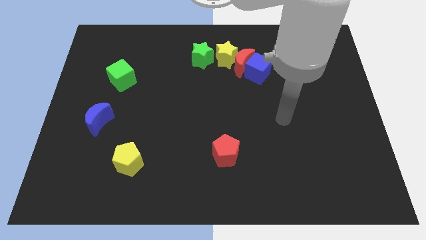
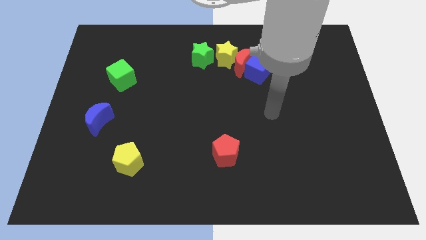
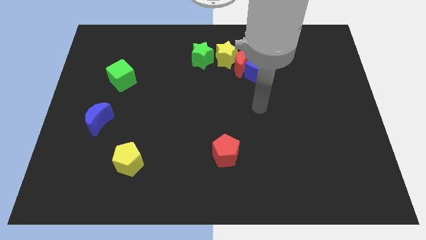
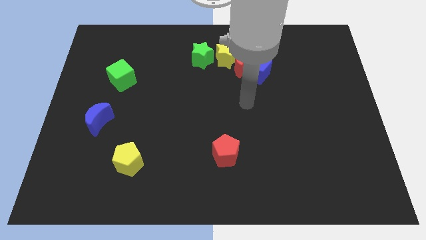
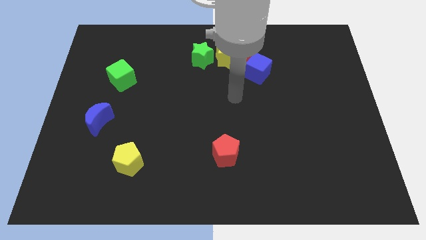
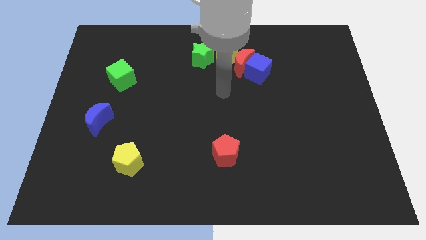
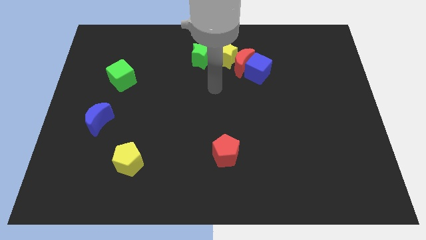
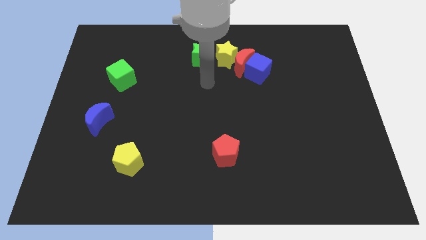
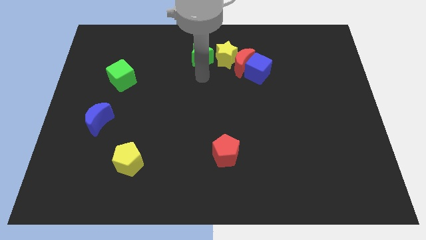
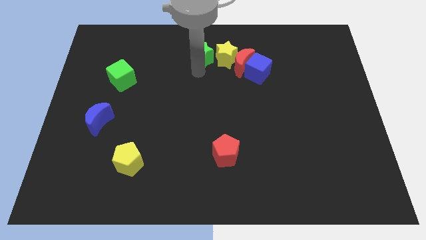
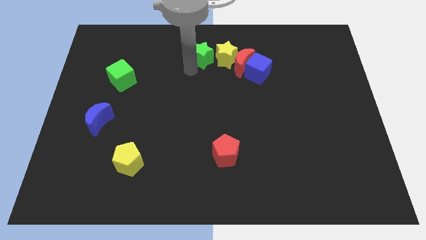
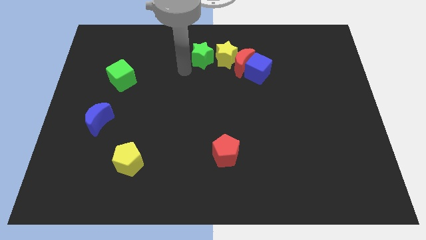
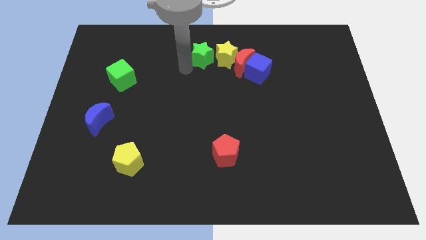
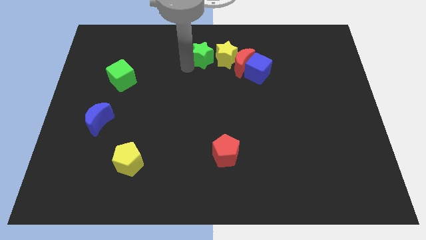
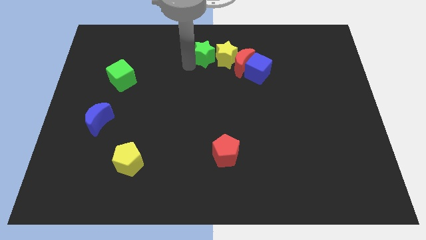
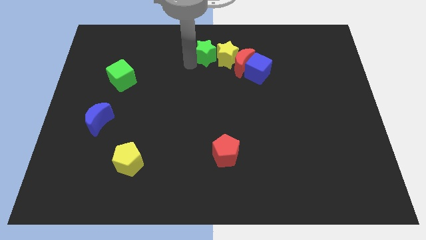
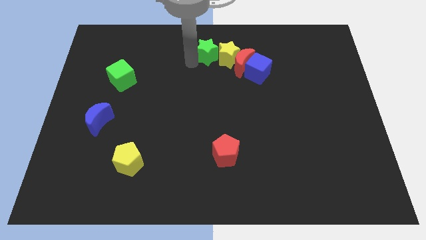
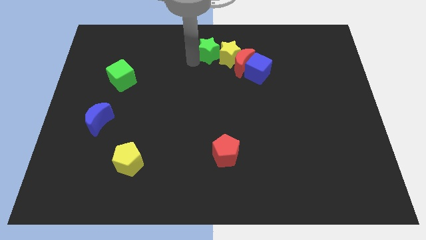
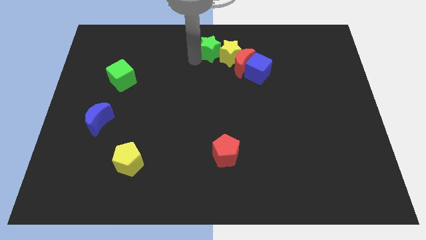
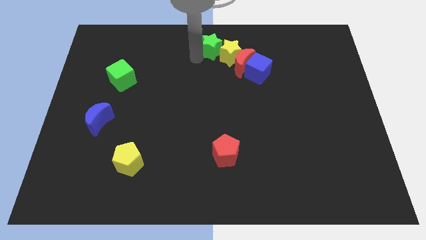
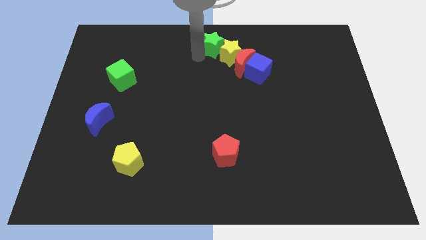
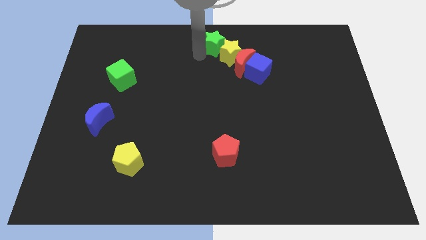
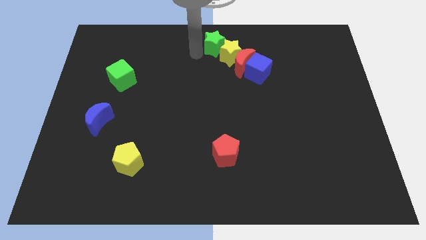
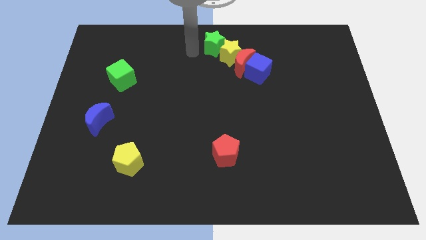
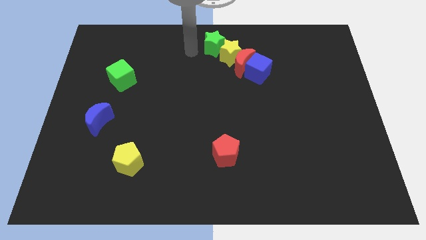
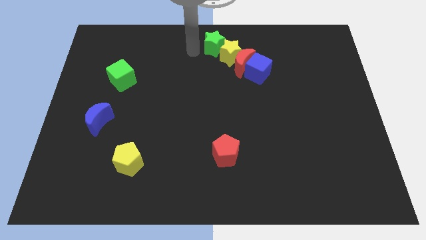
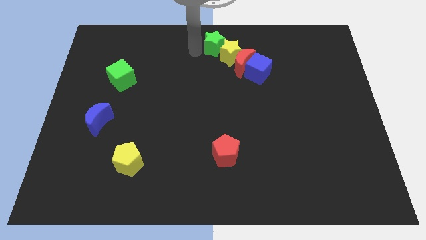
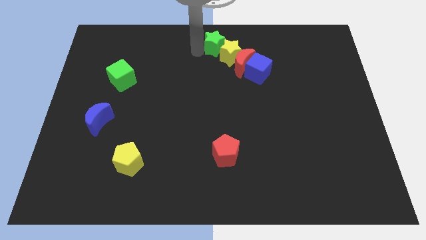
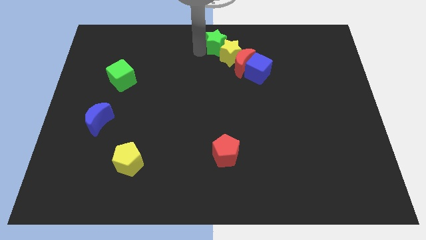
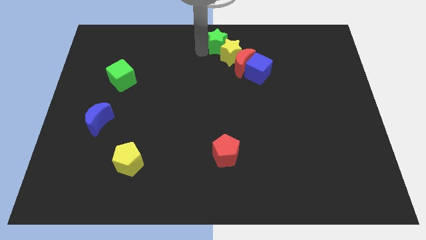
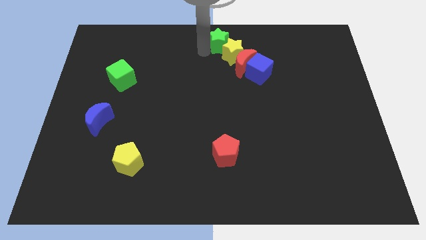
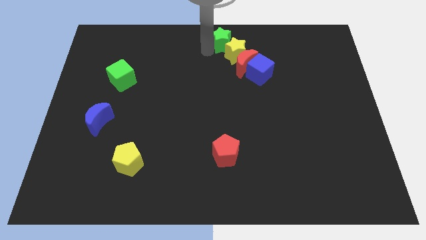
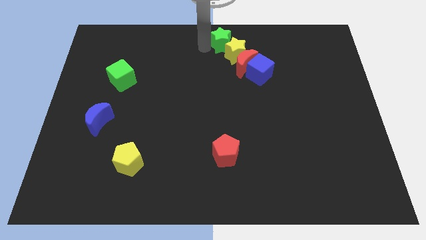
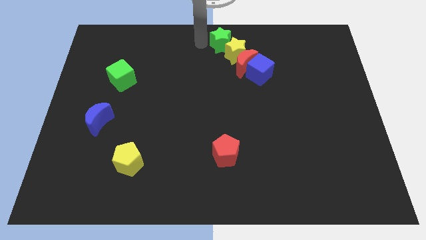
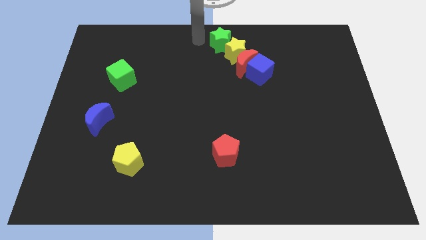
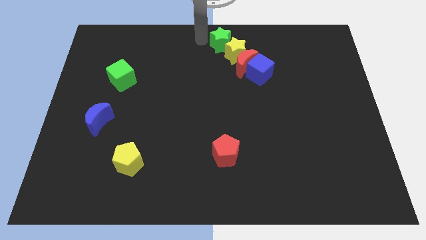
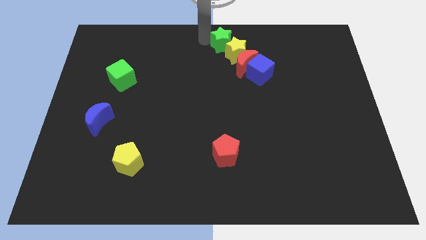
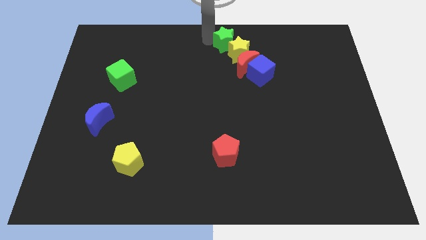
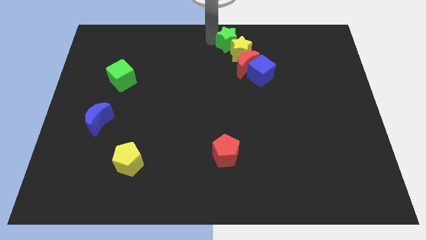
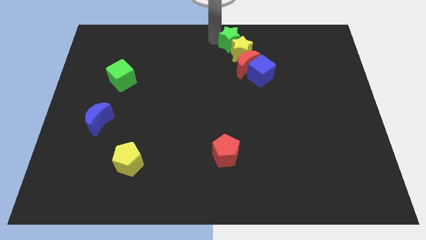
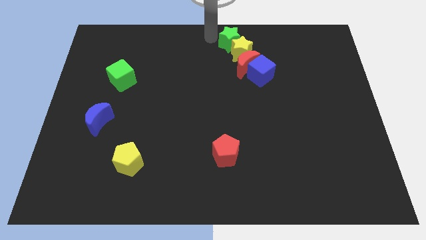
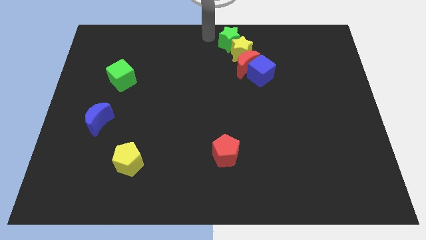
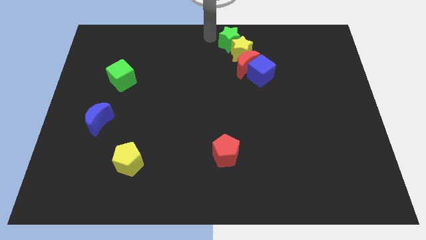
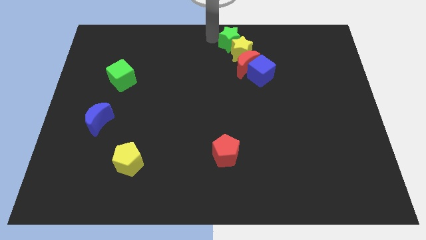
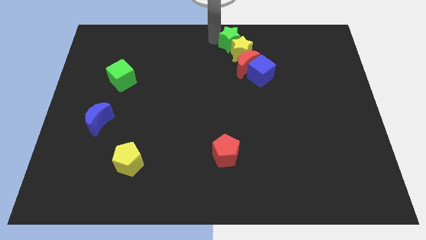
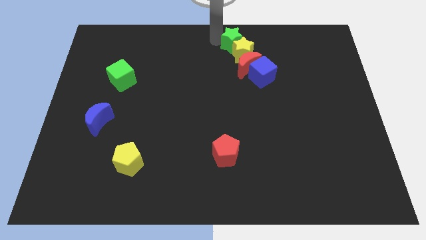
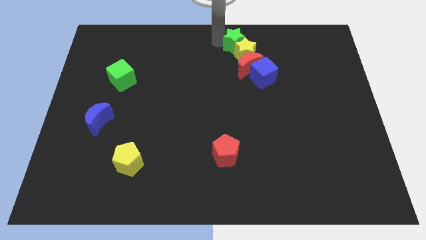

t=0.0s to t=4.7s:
push the green star a little to the right

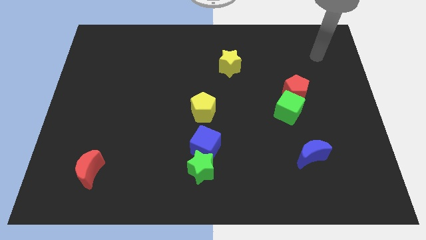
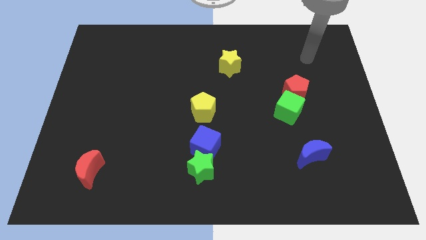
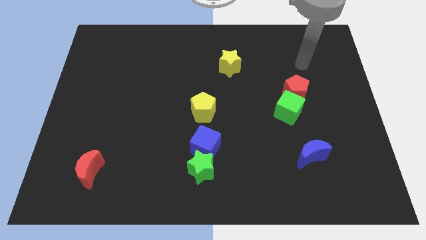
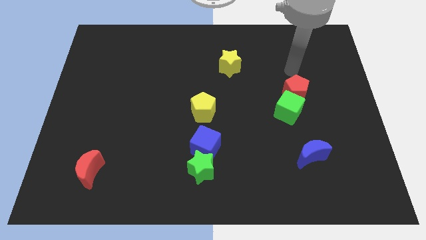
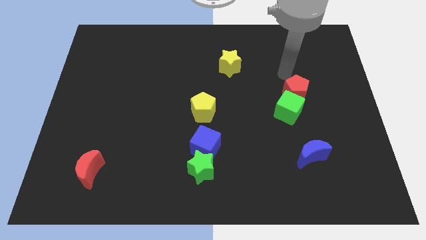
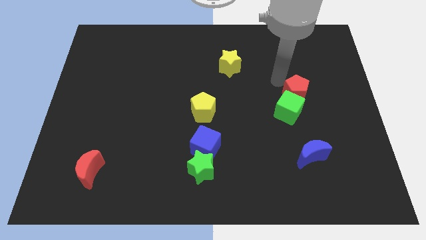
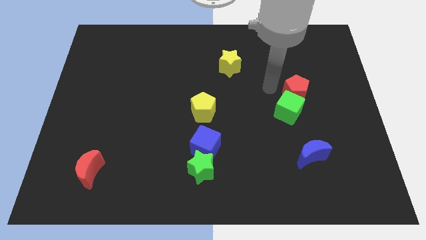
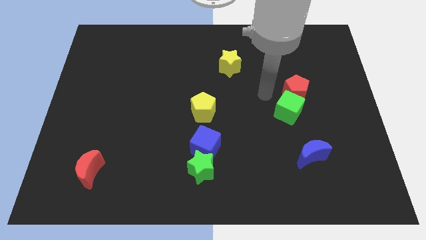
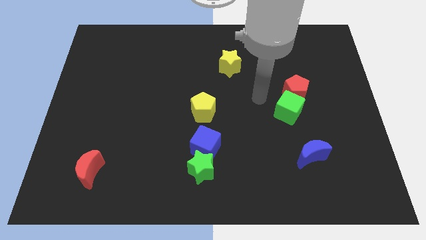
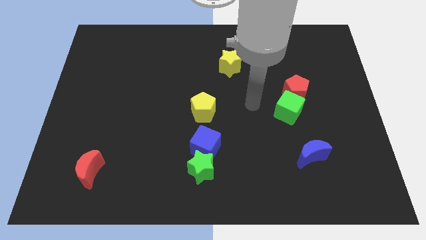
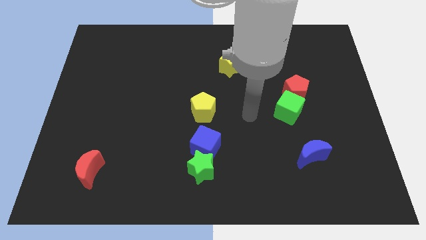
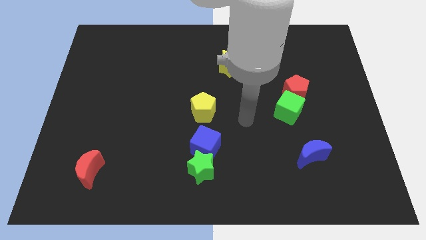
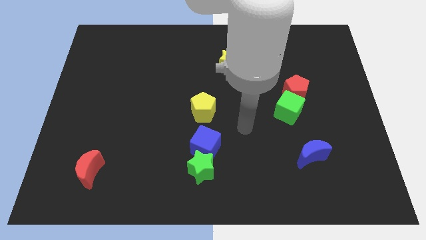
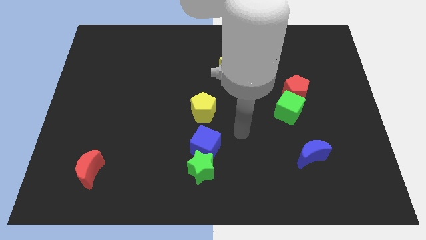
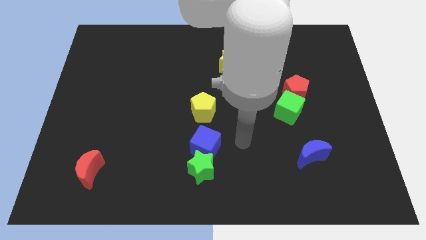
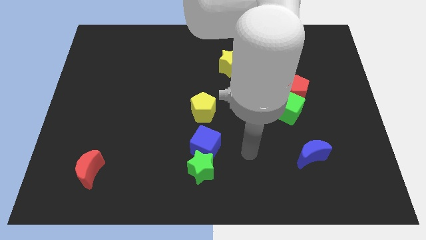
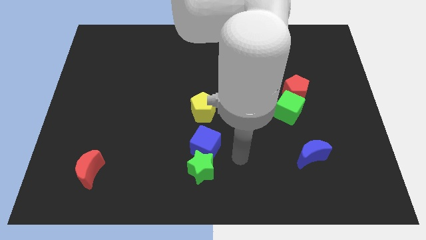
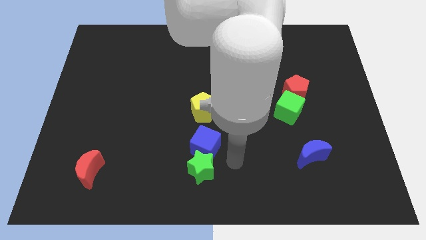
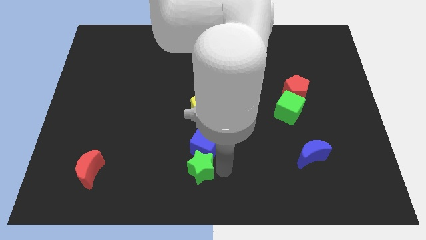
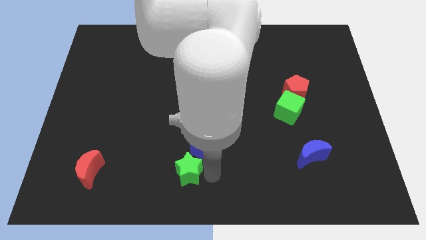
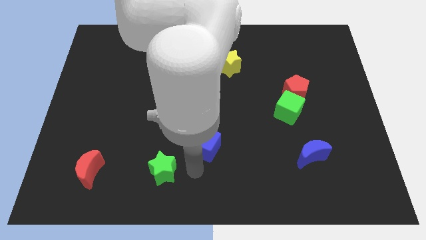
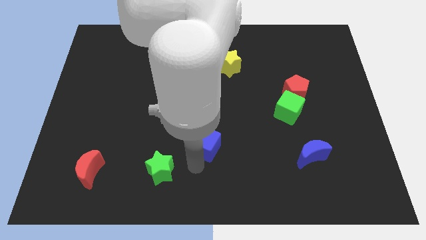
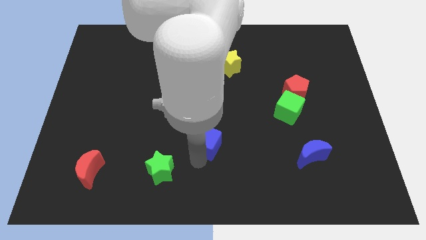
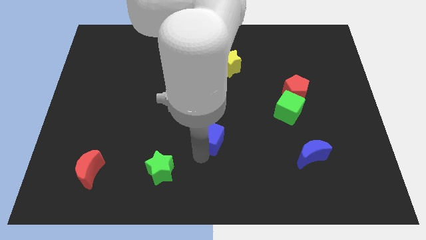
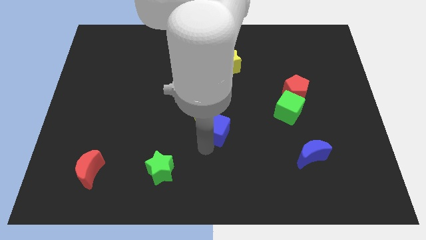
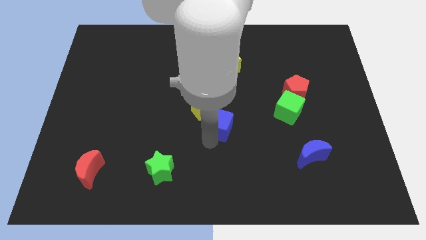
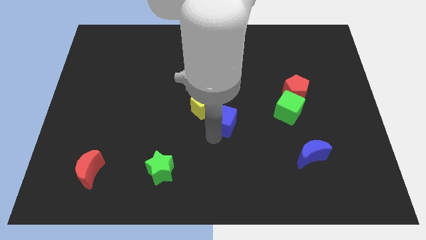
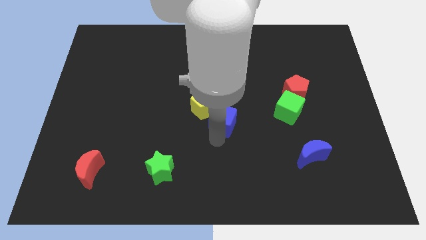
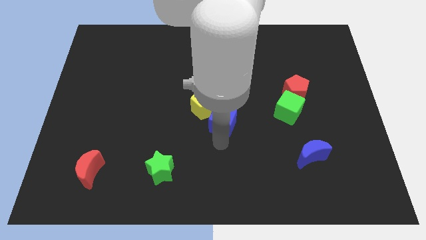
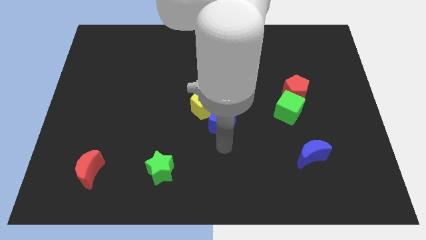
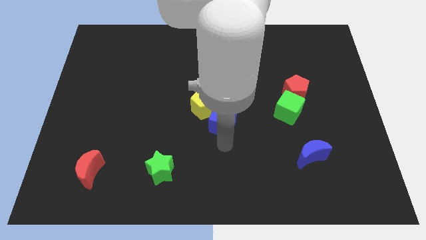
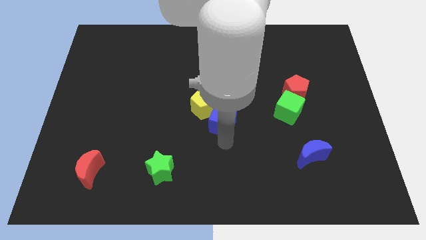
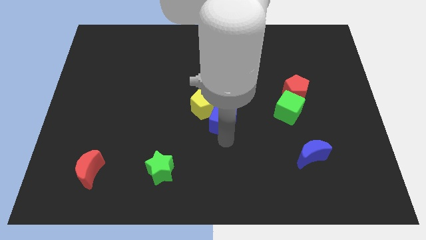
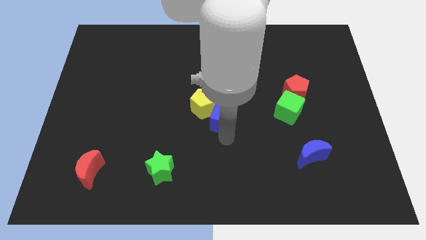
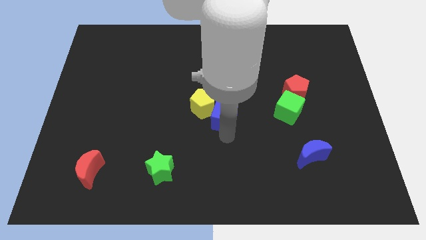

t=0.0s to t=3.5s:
slide the blue cube upwards slightly
